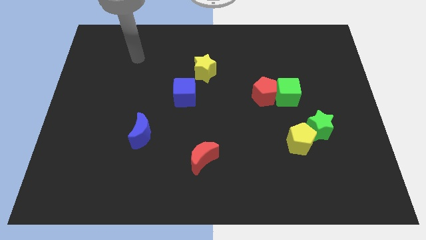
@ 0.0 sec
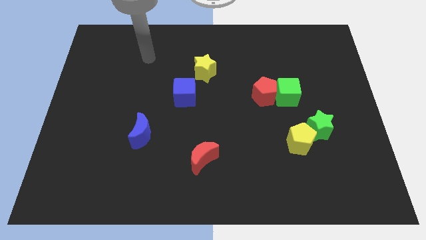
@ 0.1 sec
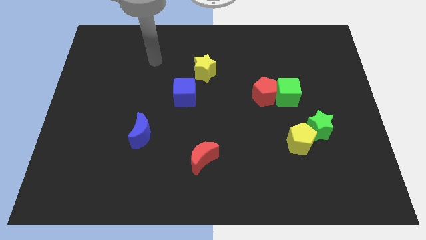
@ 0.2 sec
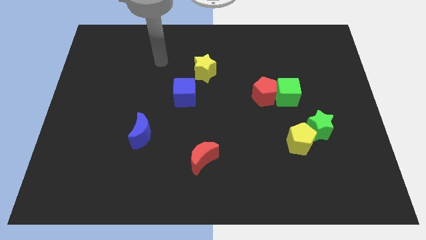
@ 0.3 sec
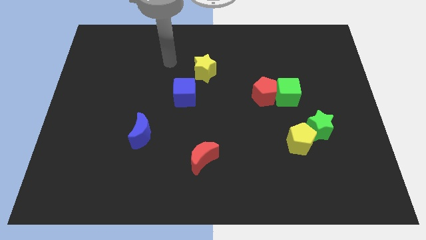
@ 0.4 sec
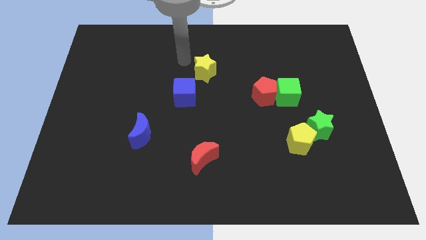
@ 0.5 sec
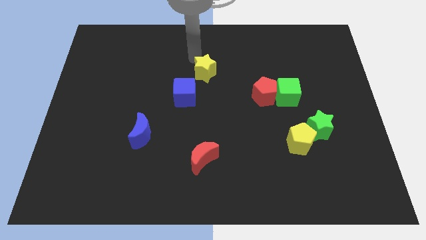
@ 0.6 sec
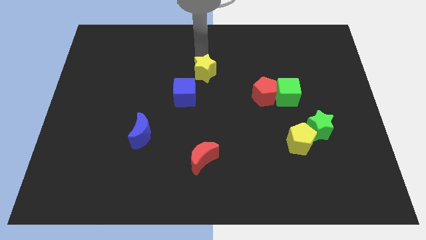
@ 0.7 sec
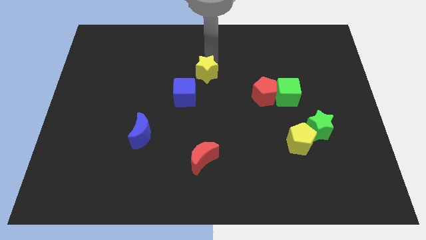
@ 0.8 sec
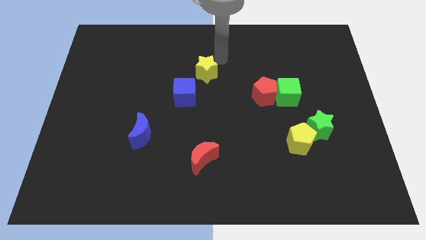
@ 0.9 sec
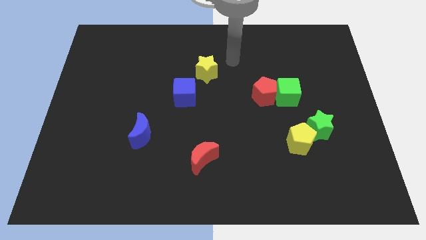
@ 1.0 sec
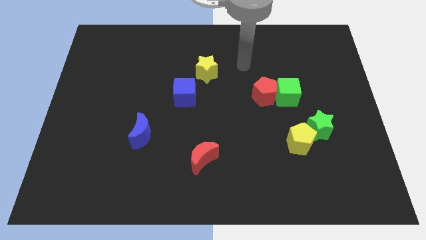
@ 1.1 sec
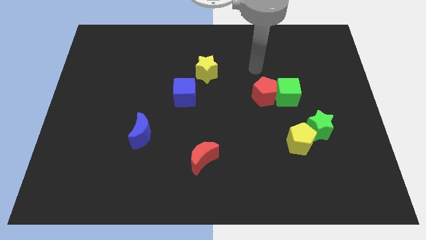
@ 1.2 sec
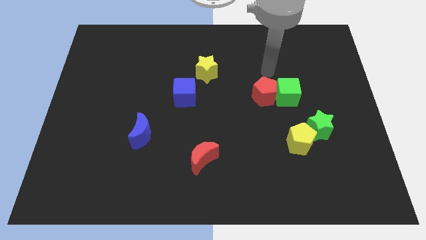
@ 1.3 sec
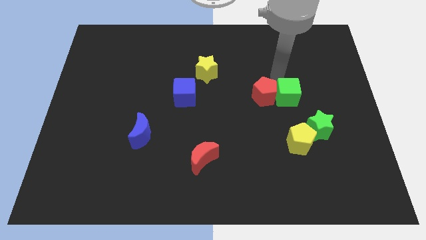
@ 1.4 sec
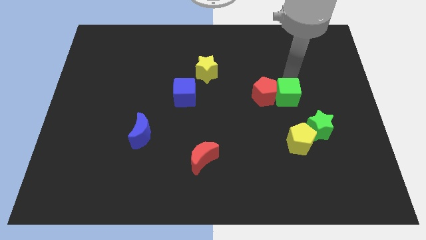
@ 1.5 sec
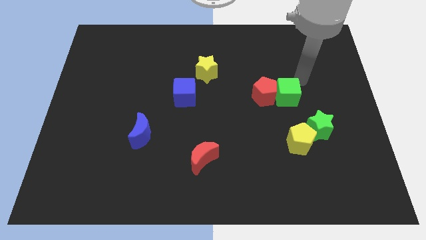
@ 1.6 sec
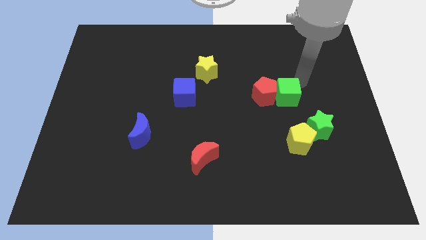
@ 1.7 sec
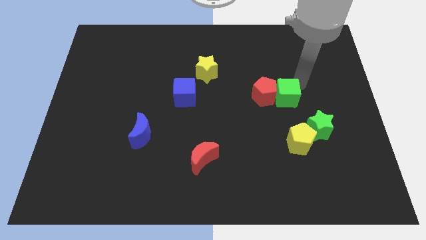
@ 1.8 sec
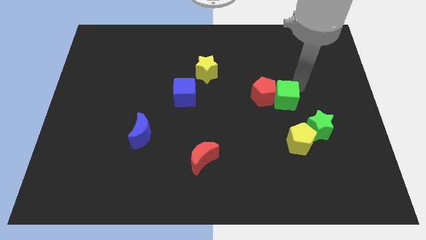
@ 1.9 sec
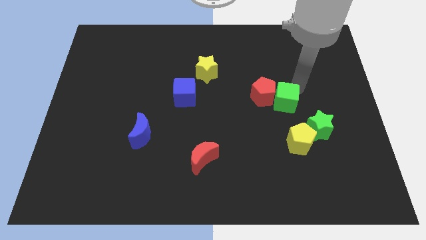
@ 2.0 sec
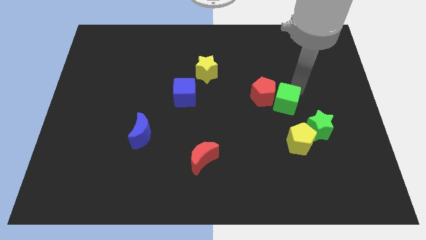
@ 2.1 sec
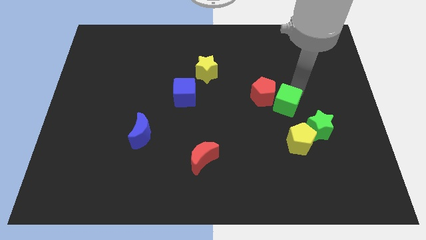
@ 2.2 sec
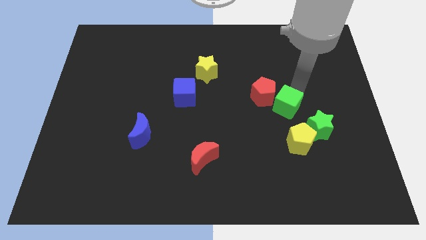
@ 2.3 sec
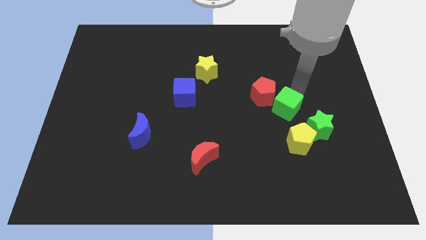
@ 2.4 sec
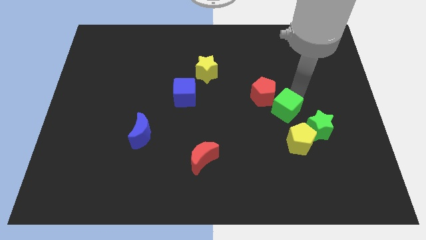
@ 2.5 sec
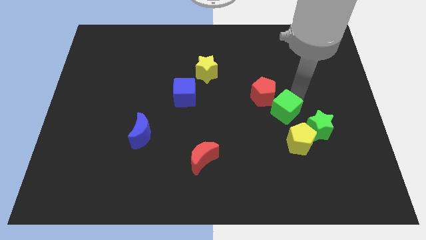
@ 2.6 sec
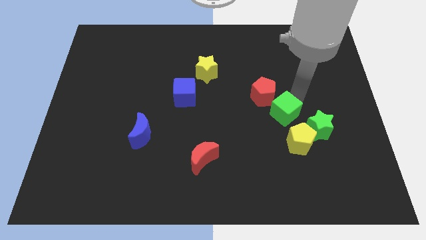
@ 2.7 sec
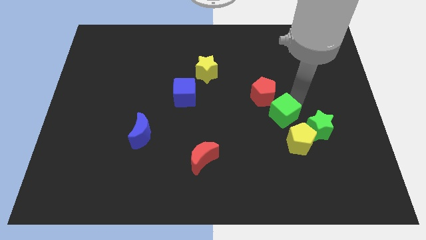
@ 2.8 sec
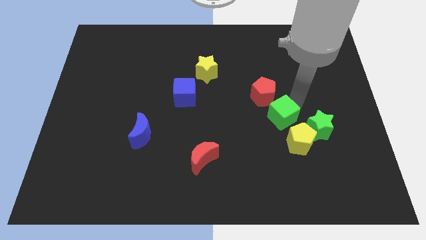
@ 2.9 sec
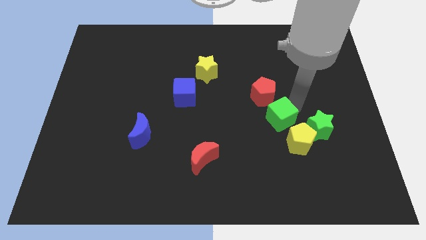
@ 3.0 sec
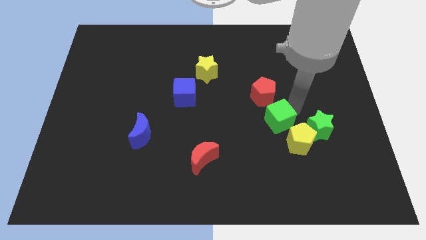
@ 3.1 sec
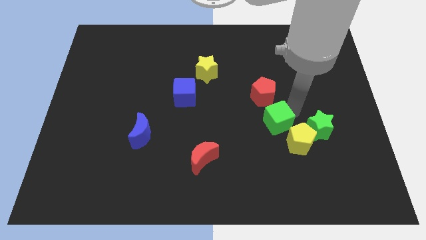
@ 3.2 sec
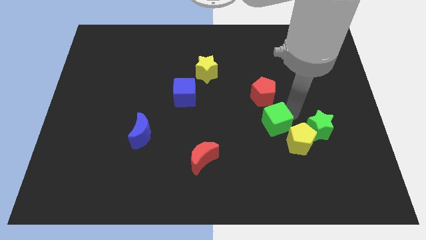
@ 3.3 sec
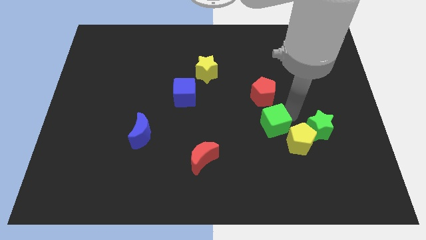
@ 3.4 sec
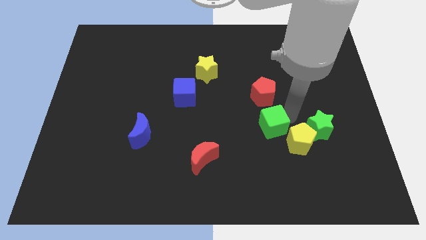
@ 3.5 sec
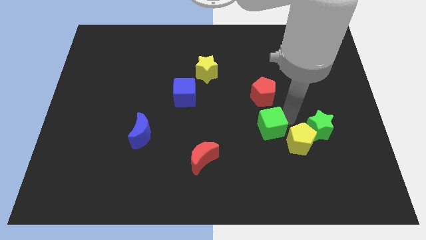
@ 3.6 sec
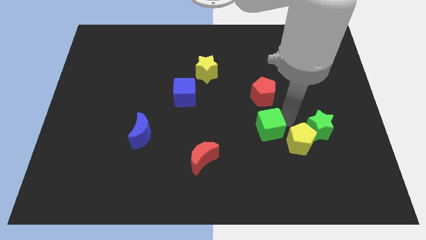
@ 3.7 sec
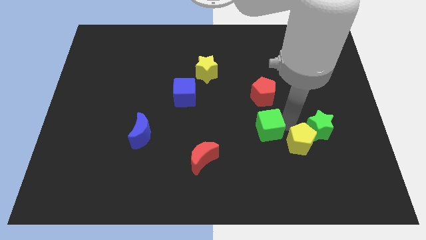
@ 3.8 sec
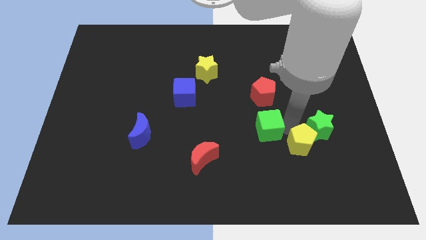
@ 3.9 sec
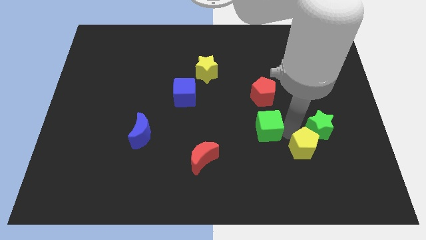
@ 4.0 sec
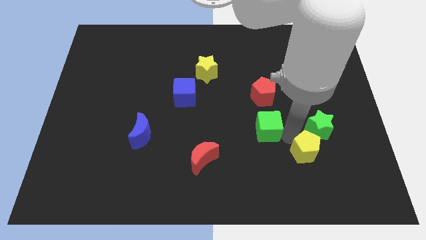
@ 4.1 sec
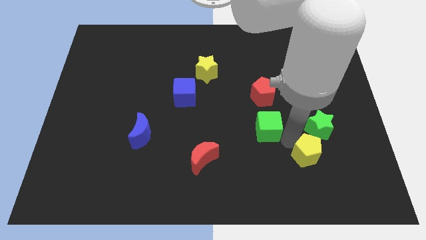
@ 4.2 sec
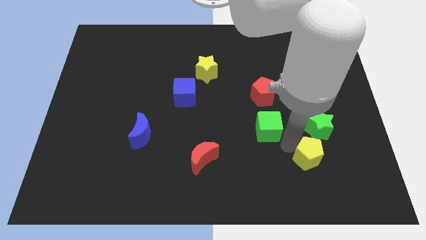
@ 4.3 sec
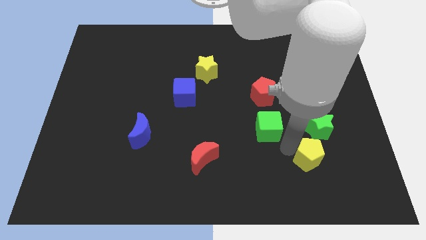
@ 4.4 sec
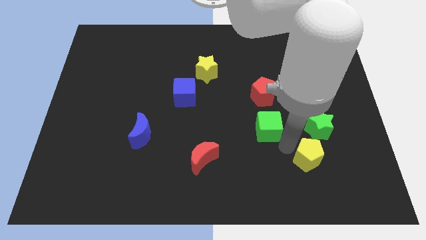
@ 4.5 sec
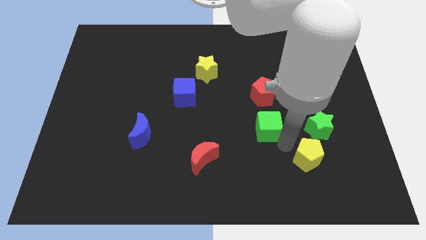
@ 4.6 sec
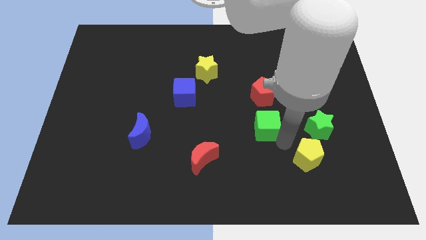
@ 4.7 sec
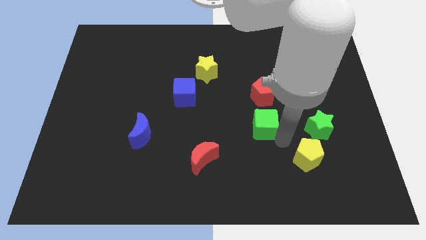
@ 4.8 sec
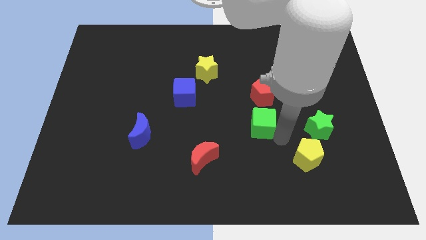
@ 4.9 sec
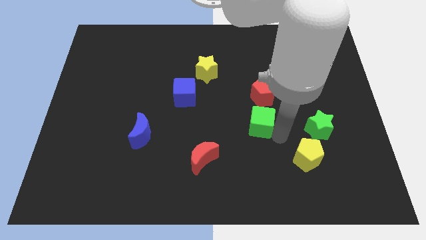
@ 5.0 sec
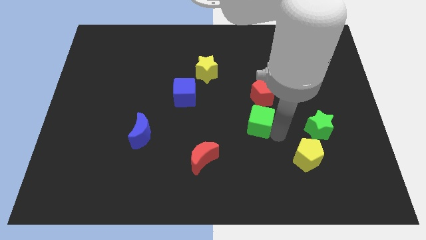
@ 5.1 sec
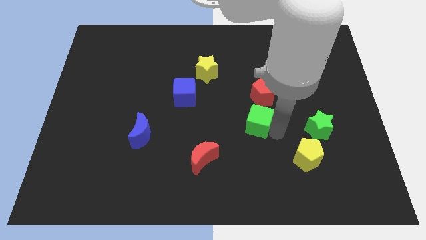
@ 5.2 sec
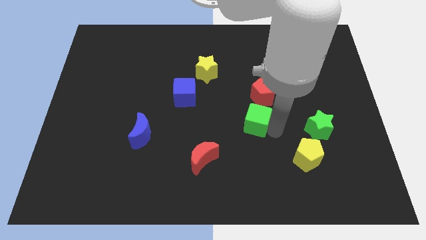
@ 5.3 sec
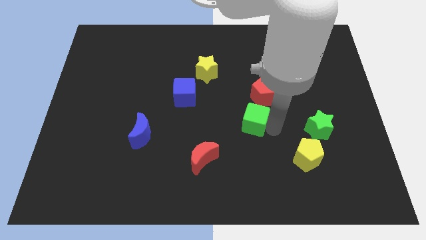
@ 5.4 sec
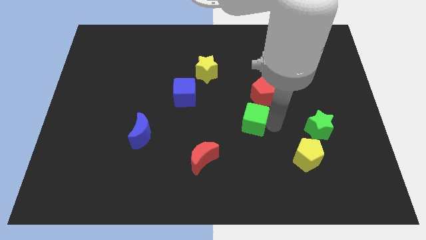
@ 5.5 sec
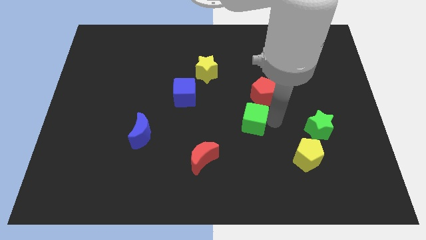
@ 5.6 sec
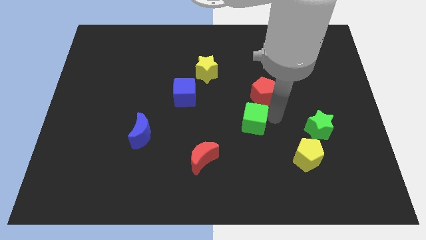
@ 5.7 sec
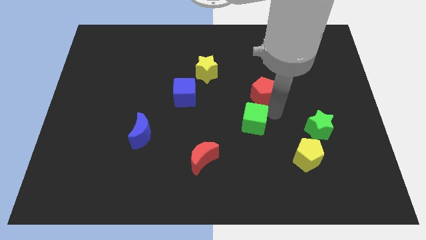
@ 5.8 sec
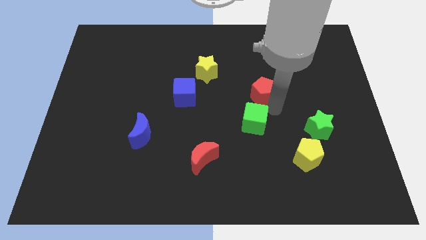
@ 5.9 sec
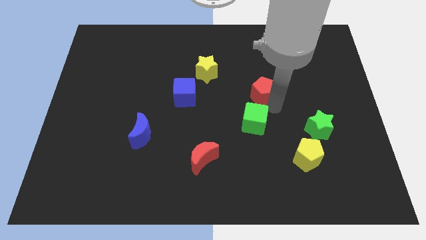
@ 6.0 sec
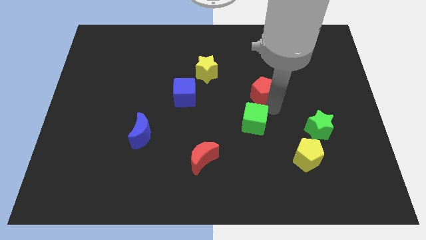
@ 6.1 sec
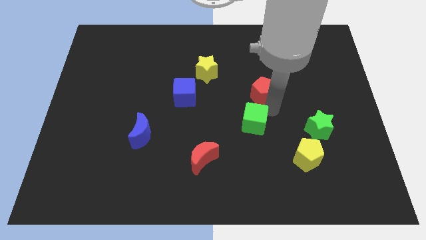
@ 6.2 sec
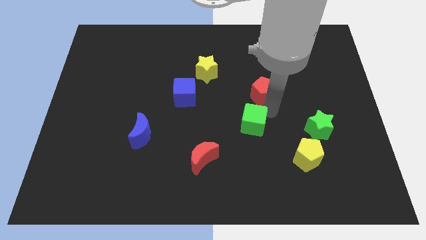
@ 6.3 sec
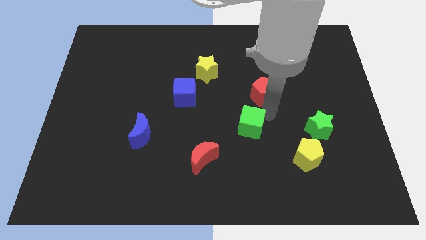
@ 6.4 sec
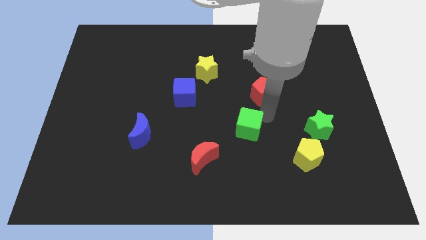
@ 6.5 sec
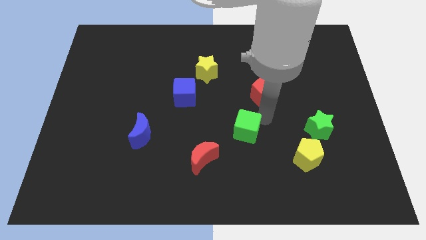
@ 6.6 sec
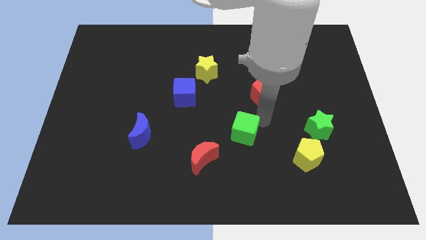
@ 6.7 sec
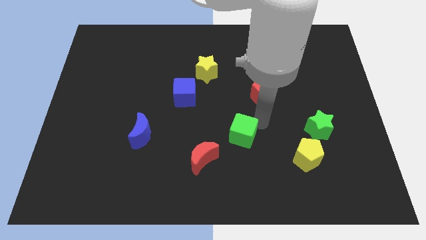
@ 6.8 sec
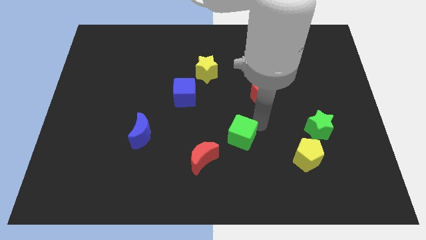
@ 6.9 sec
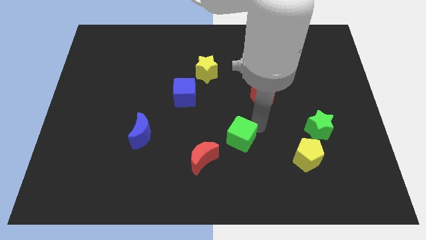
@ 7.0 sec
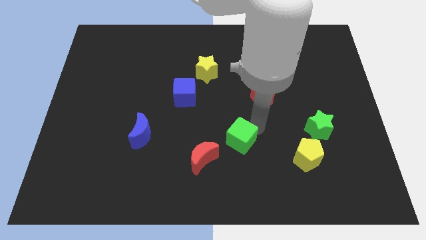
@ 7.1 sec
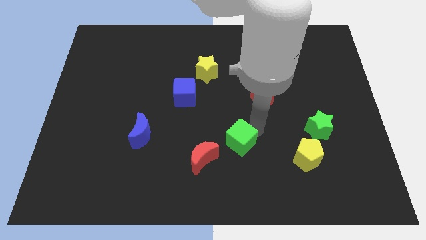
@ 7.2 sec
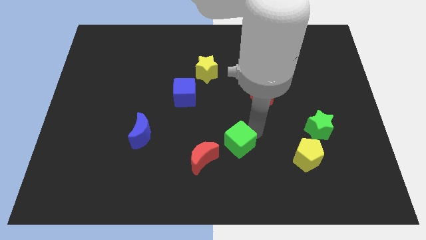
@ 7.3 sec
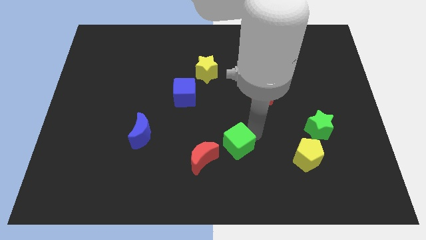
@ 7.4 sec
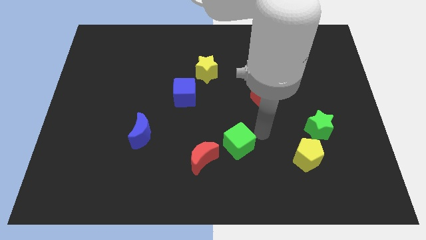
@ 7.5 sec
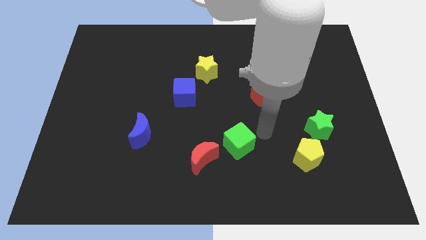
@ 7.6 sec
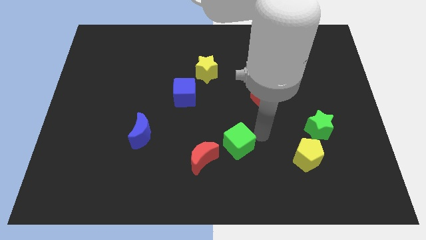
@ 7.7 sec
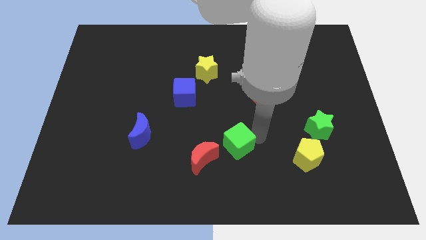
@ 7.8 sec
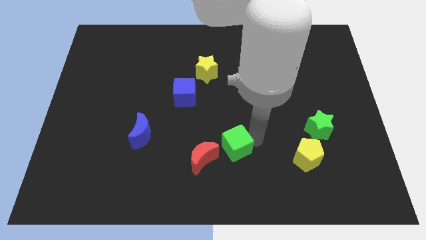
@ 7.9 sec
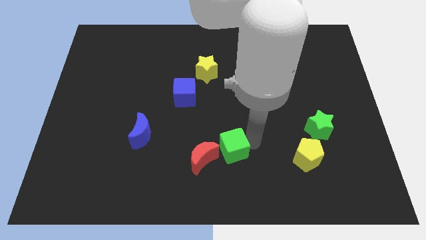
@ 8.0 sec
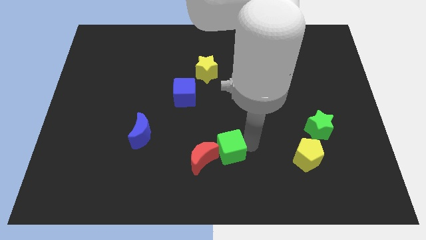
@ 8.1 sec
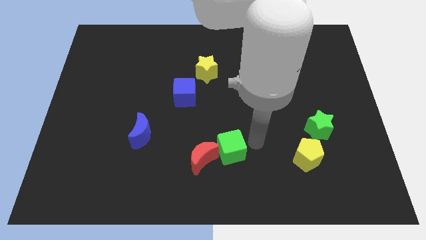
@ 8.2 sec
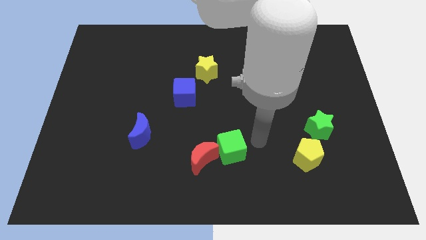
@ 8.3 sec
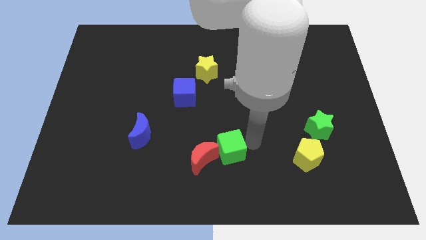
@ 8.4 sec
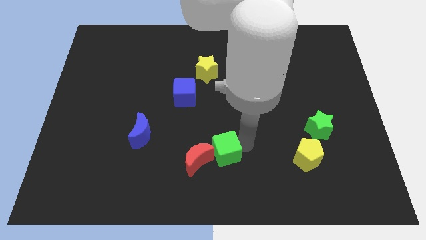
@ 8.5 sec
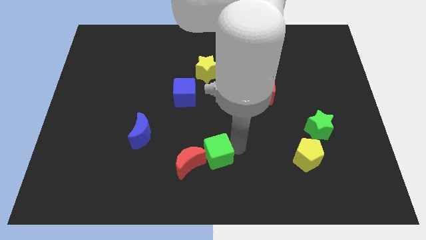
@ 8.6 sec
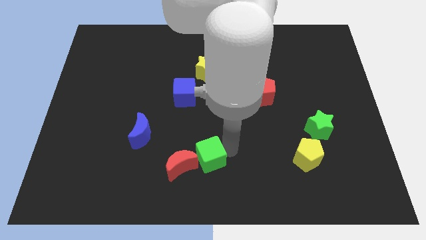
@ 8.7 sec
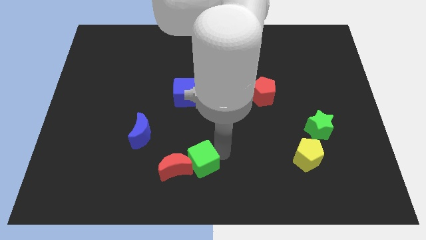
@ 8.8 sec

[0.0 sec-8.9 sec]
push the green cube close to the red moon
